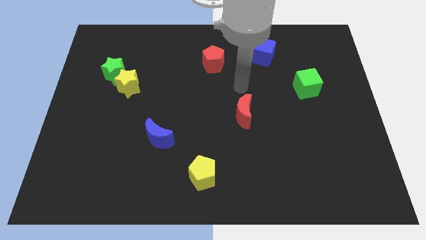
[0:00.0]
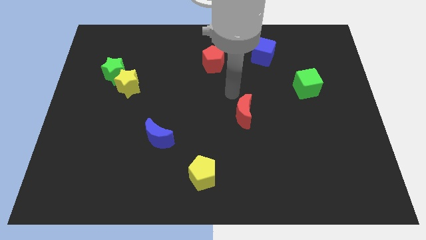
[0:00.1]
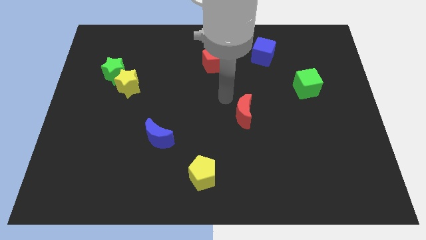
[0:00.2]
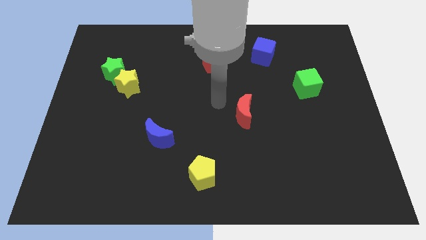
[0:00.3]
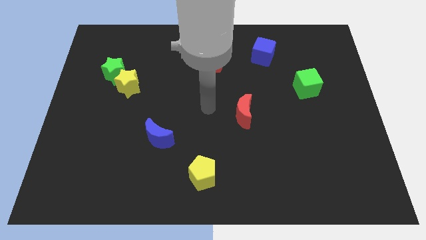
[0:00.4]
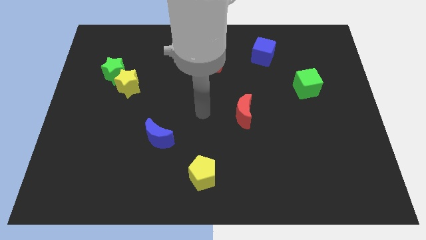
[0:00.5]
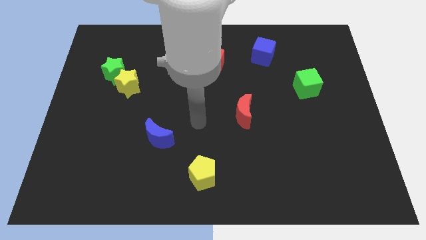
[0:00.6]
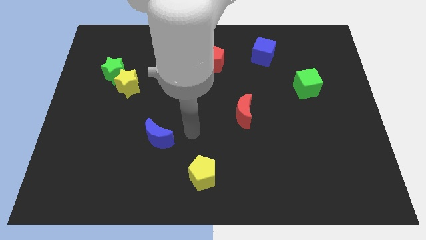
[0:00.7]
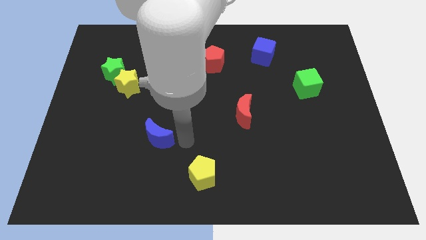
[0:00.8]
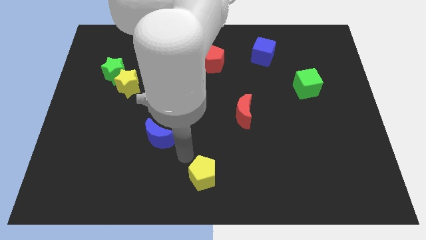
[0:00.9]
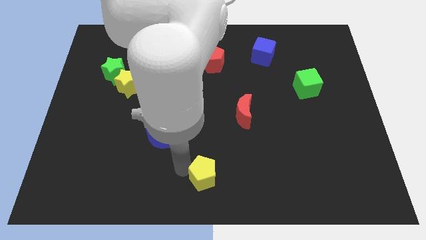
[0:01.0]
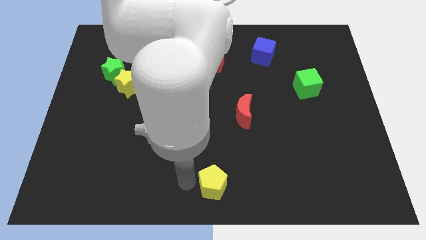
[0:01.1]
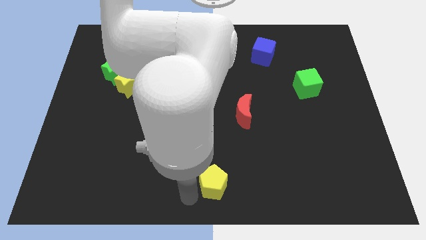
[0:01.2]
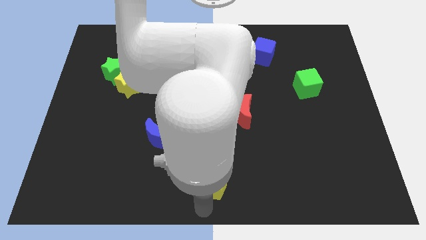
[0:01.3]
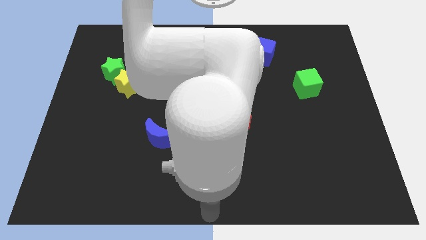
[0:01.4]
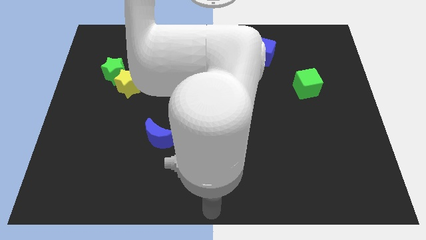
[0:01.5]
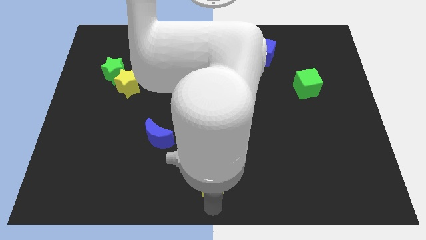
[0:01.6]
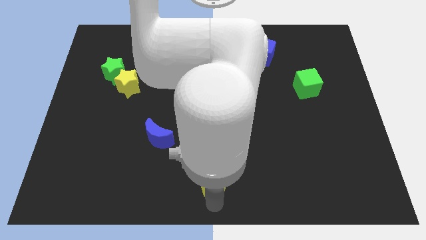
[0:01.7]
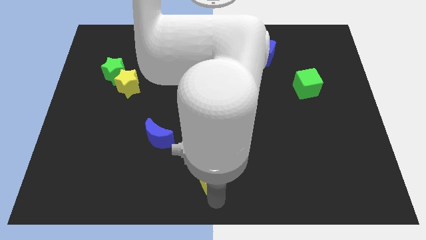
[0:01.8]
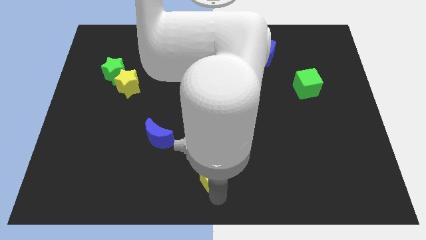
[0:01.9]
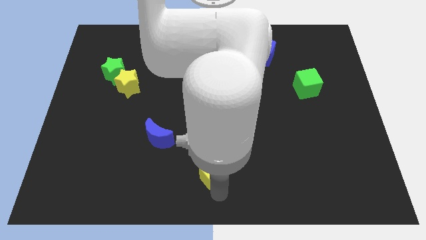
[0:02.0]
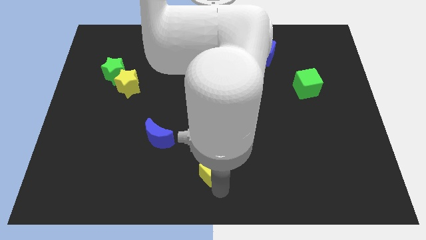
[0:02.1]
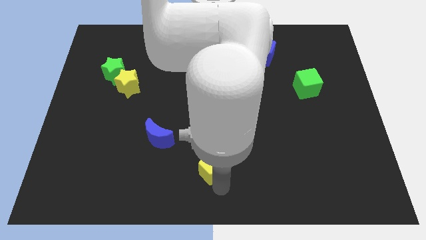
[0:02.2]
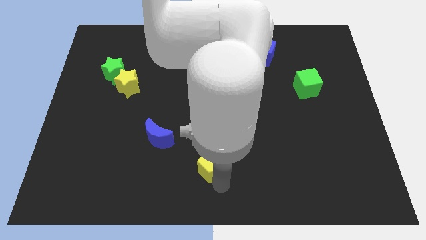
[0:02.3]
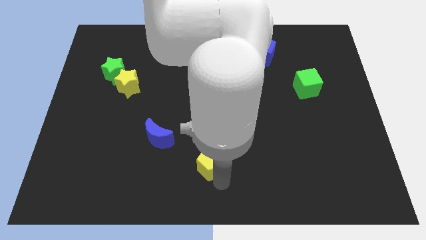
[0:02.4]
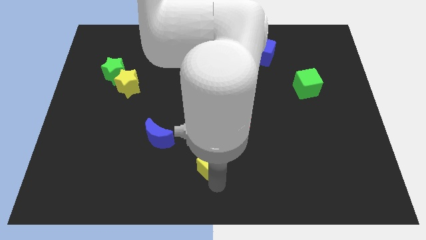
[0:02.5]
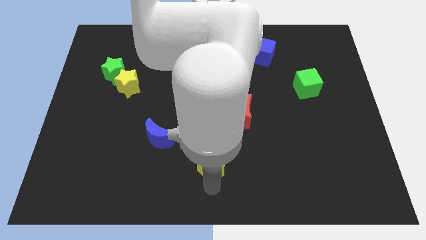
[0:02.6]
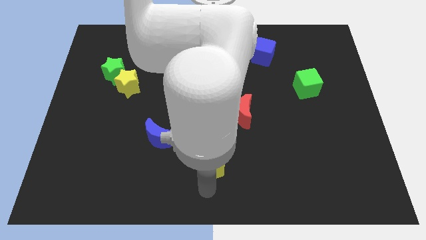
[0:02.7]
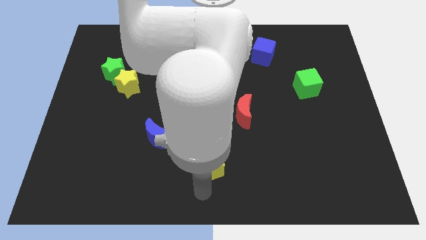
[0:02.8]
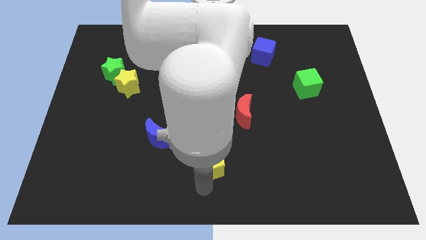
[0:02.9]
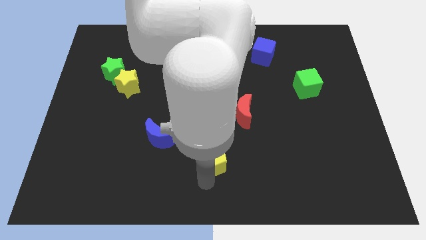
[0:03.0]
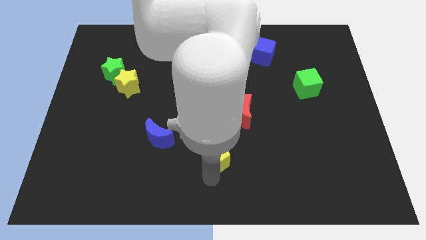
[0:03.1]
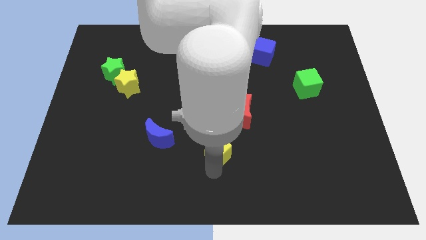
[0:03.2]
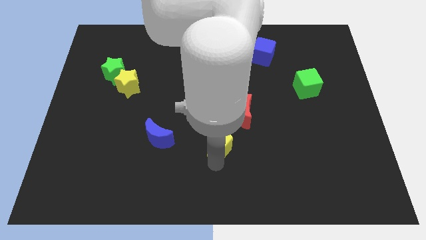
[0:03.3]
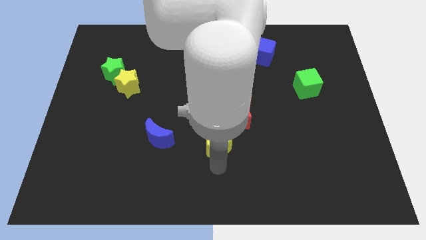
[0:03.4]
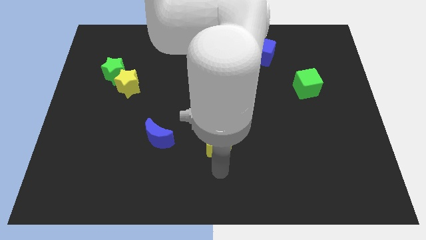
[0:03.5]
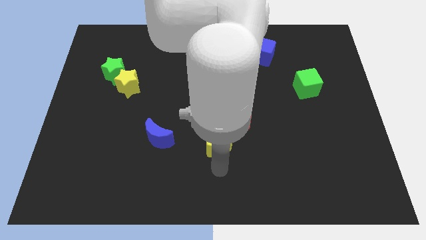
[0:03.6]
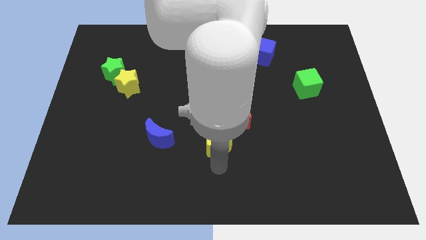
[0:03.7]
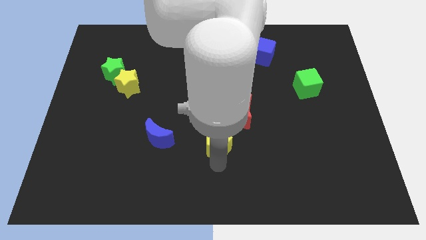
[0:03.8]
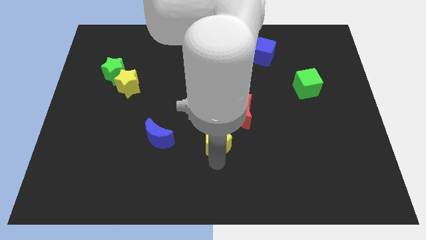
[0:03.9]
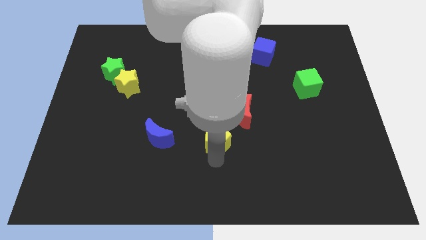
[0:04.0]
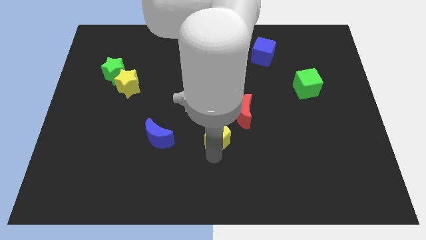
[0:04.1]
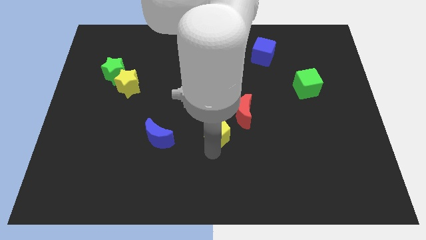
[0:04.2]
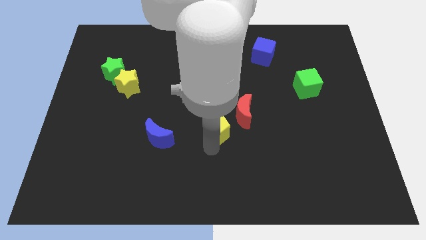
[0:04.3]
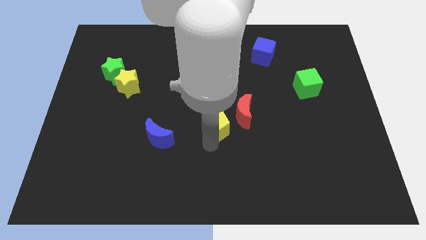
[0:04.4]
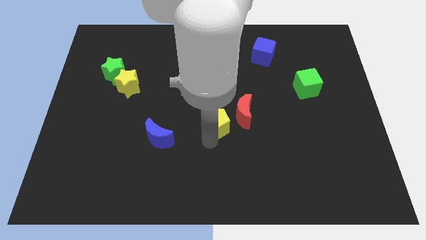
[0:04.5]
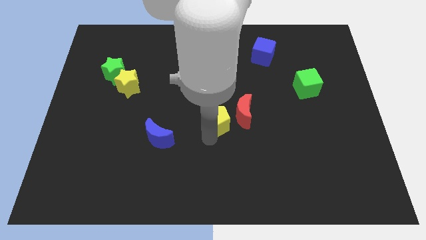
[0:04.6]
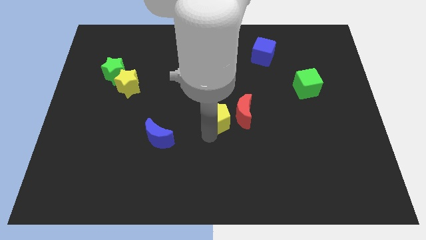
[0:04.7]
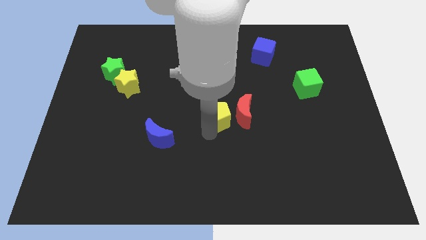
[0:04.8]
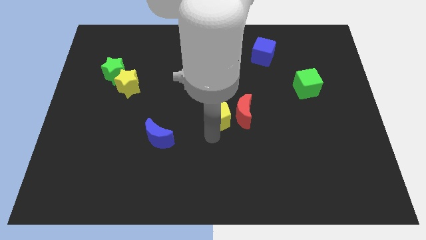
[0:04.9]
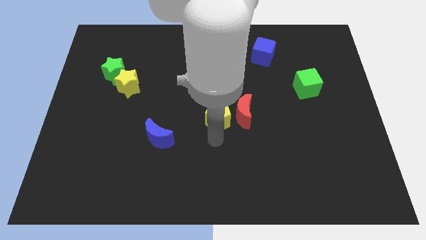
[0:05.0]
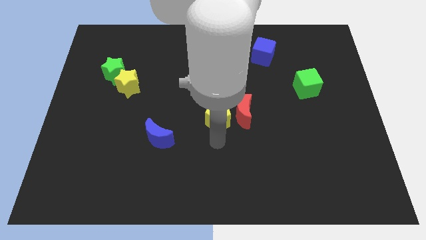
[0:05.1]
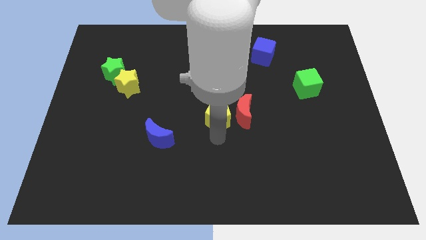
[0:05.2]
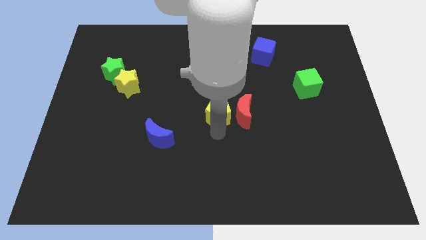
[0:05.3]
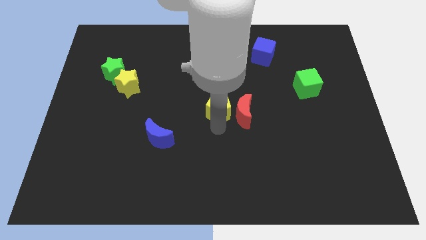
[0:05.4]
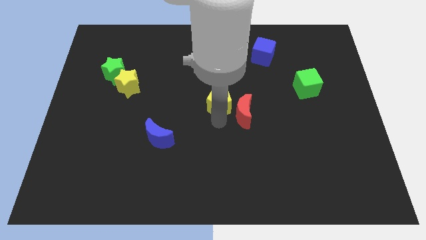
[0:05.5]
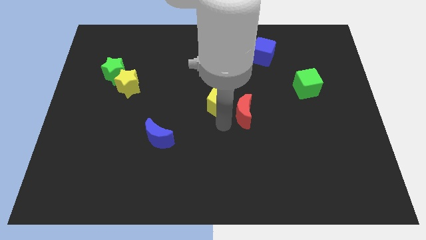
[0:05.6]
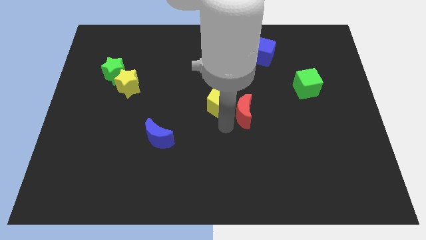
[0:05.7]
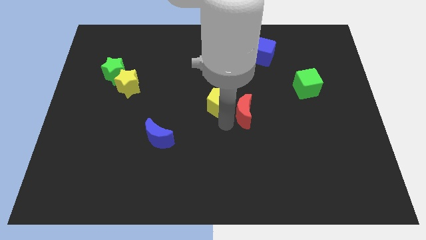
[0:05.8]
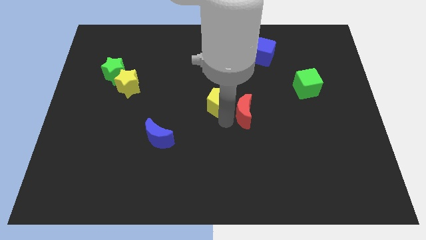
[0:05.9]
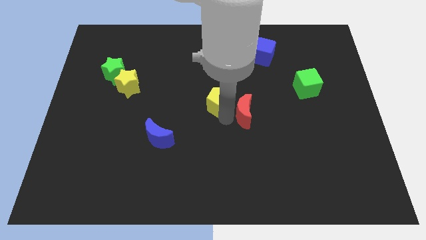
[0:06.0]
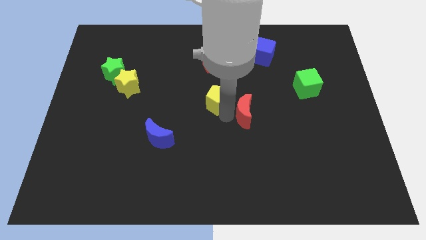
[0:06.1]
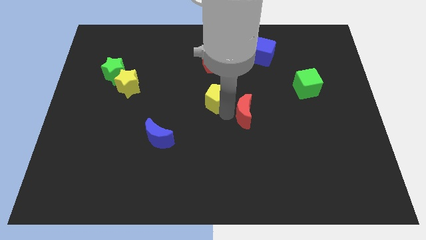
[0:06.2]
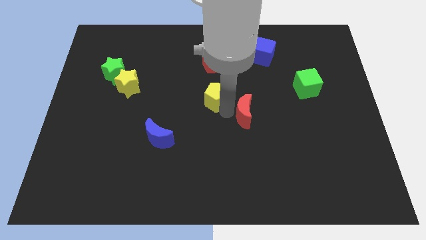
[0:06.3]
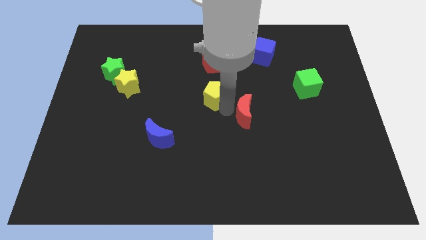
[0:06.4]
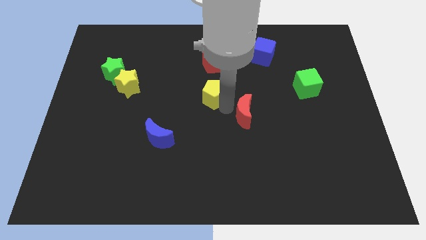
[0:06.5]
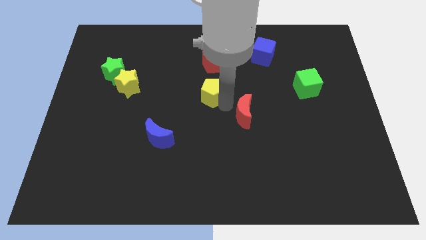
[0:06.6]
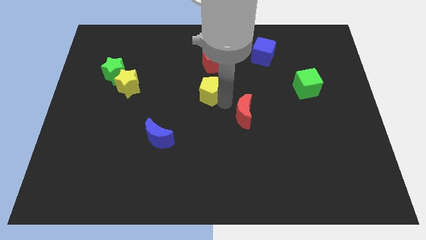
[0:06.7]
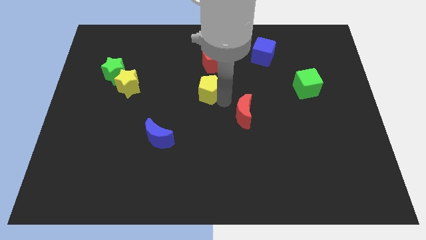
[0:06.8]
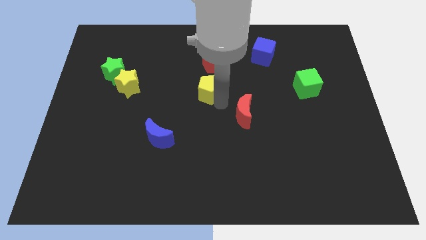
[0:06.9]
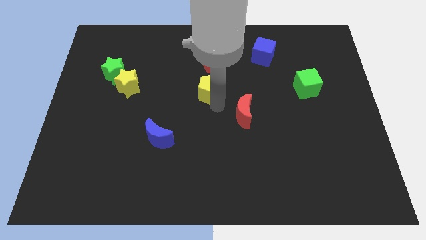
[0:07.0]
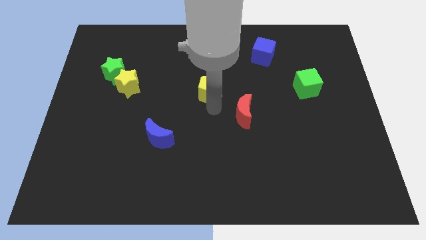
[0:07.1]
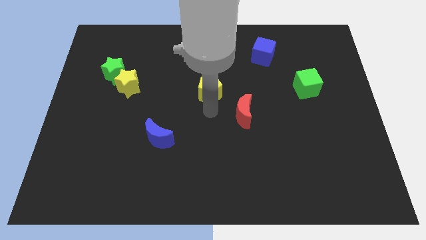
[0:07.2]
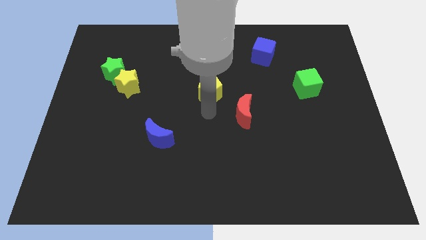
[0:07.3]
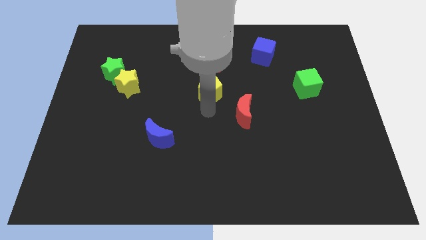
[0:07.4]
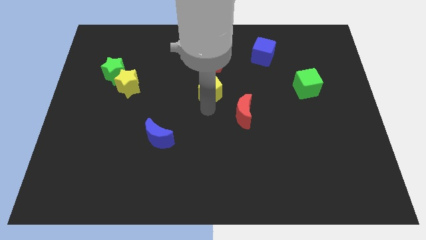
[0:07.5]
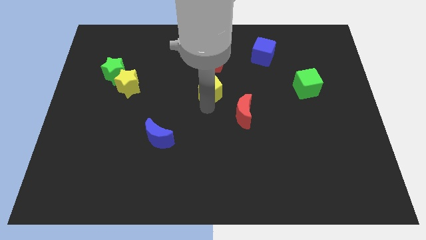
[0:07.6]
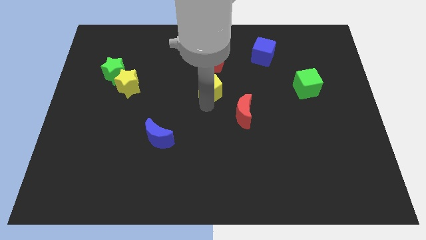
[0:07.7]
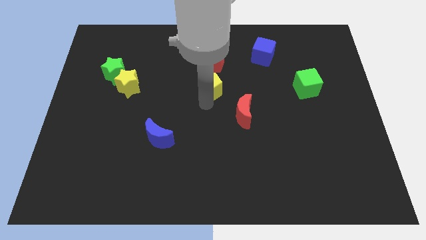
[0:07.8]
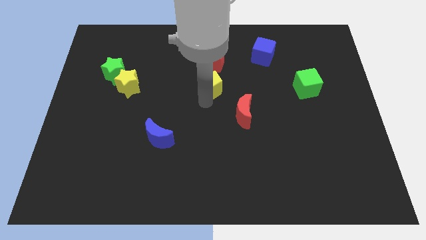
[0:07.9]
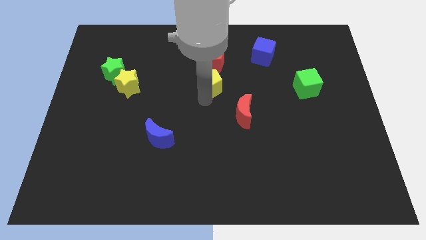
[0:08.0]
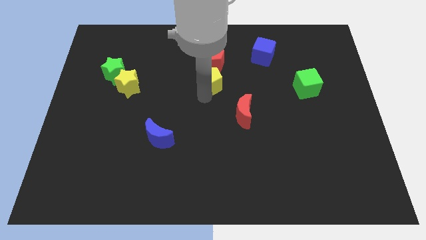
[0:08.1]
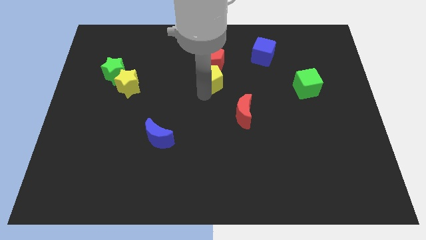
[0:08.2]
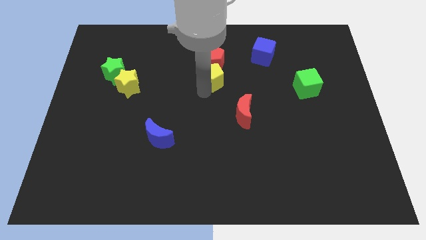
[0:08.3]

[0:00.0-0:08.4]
put the yellow pentagon next to the red pentagon
